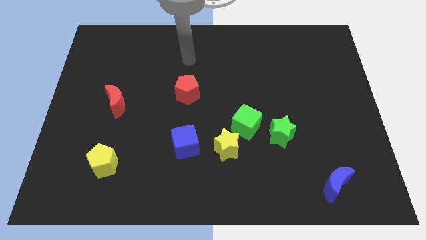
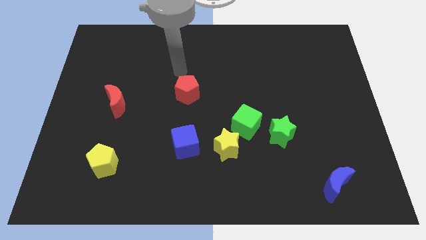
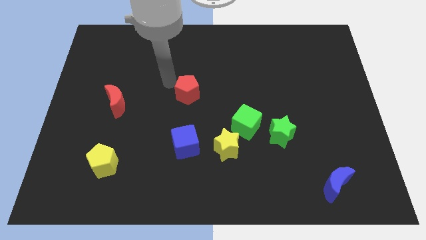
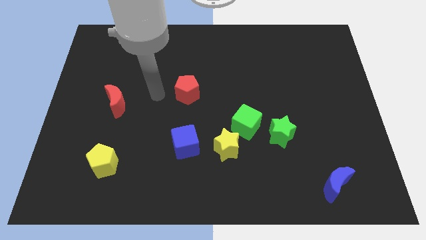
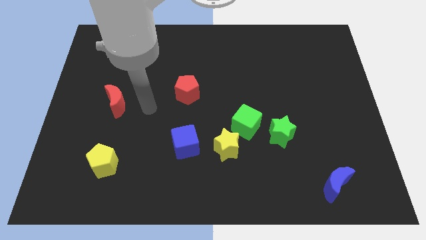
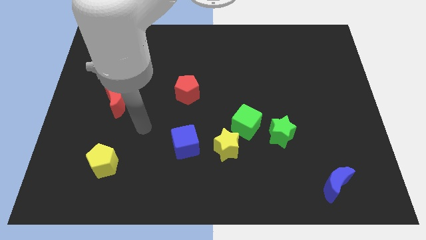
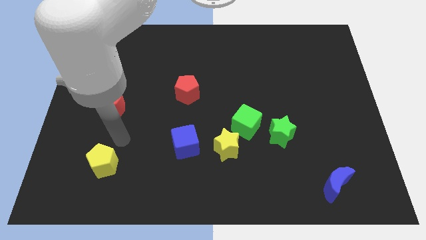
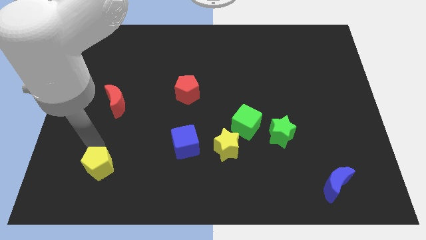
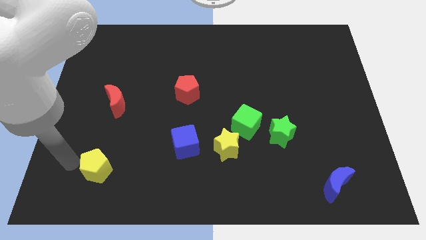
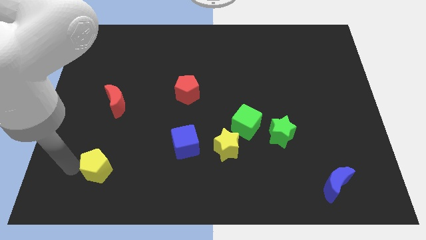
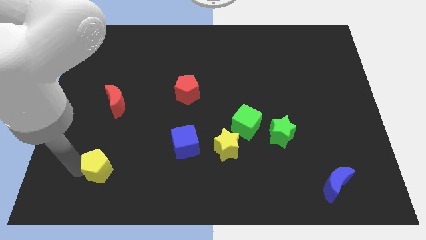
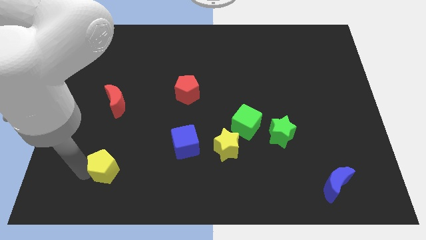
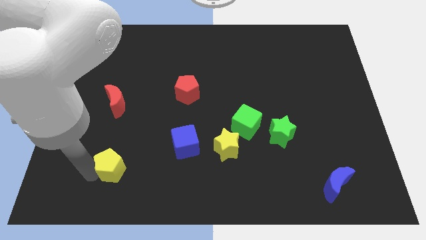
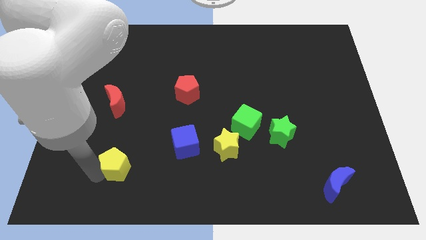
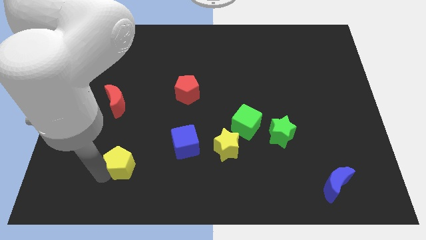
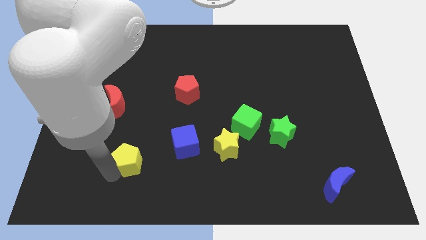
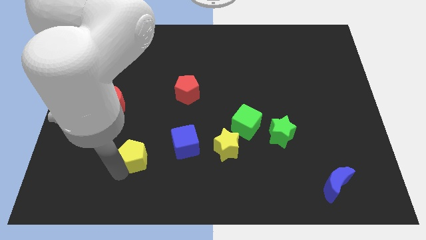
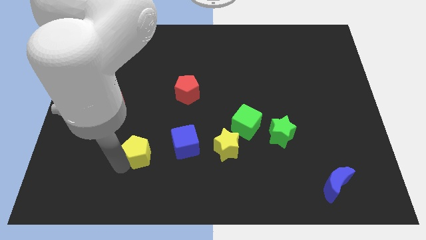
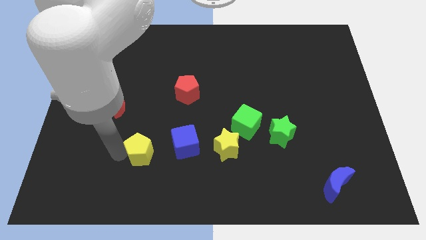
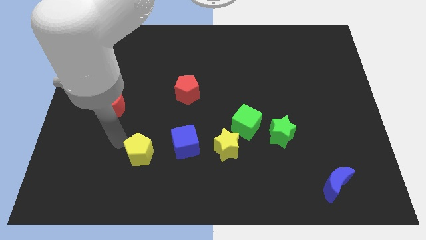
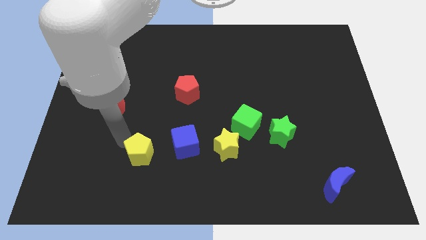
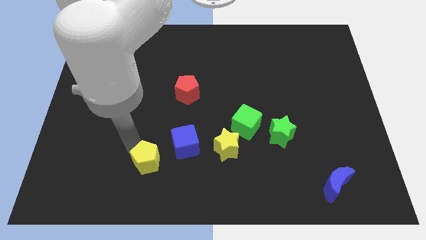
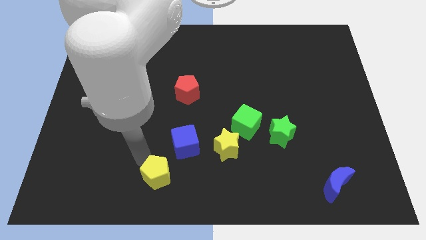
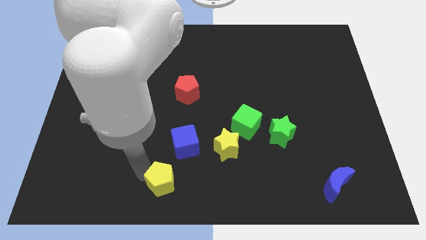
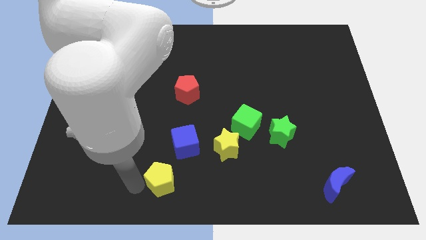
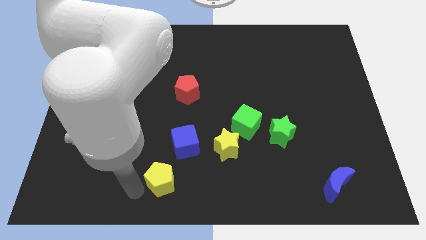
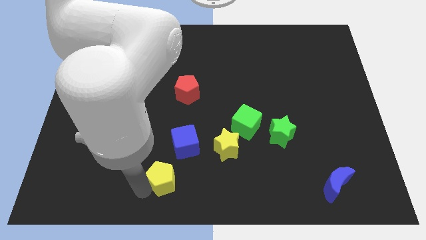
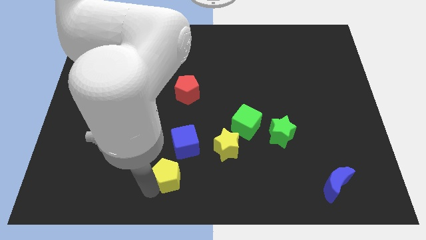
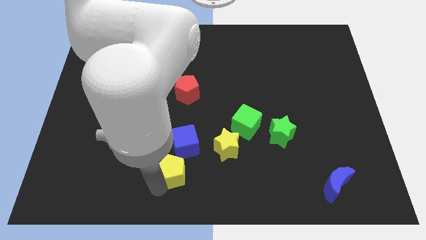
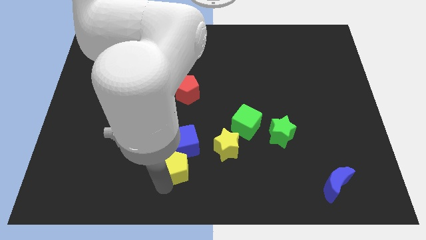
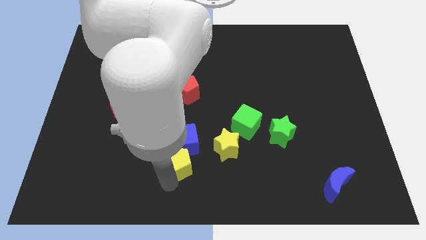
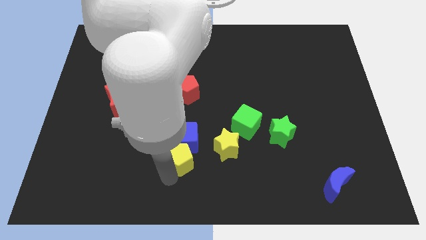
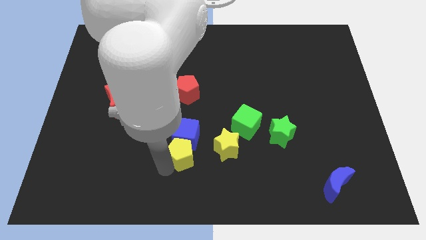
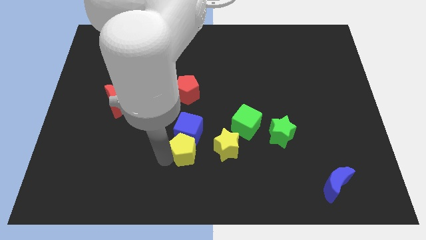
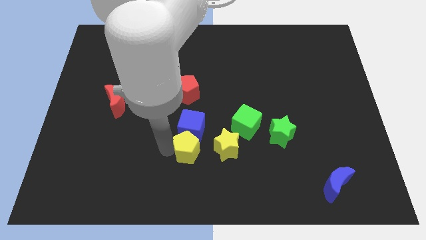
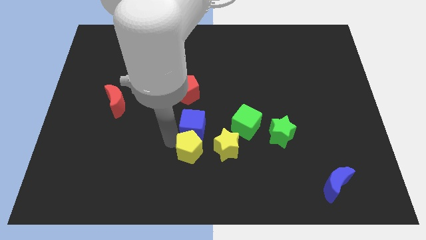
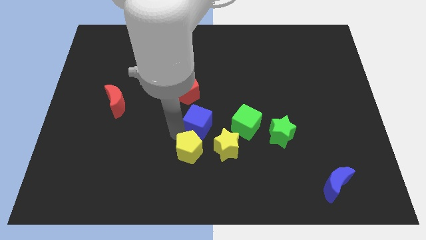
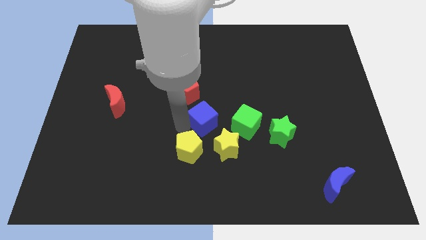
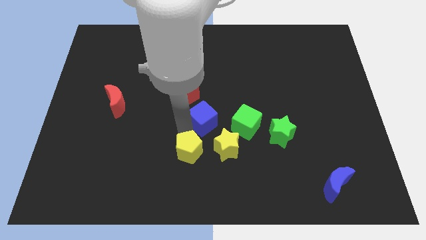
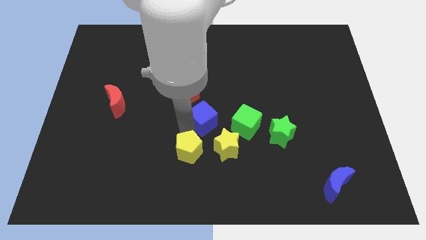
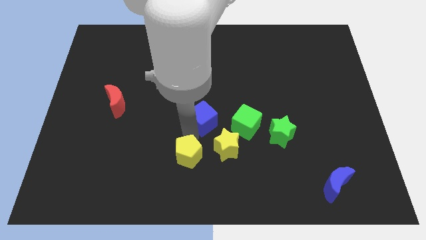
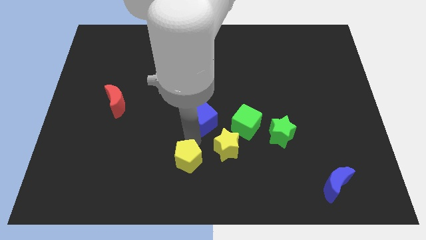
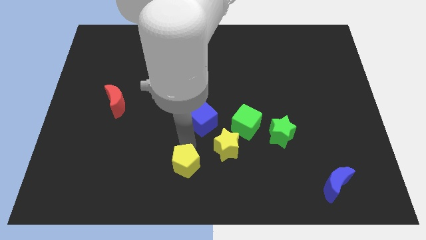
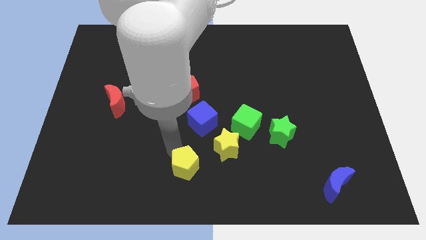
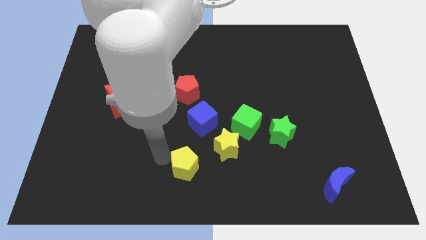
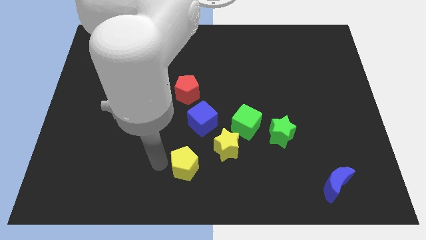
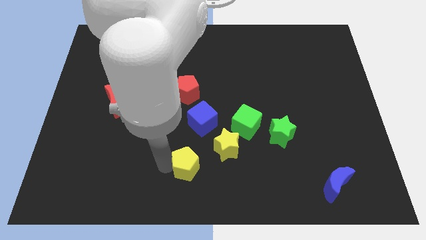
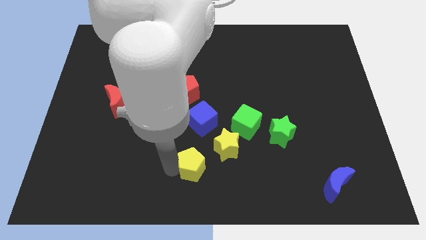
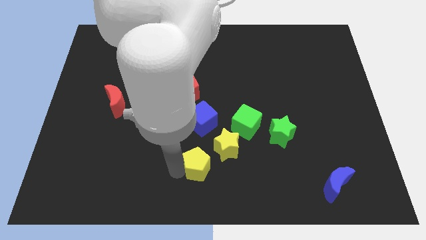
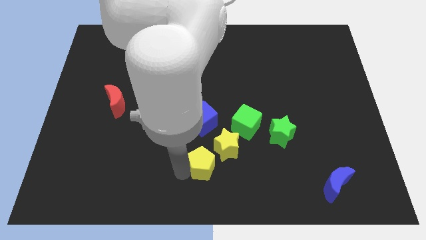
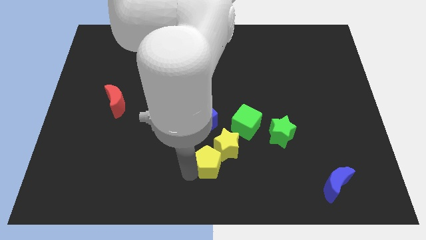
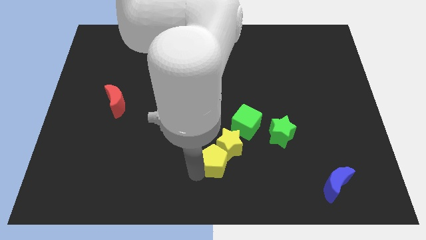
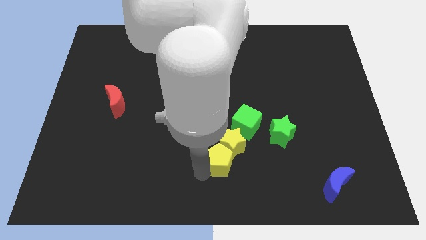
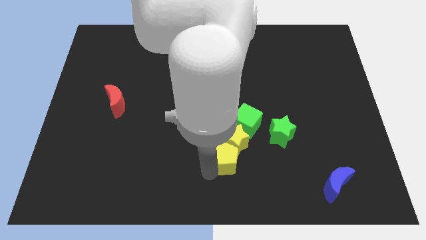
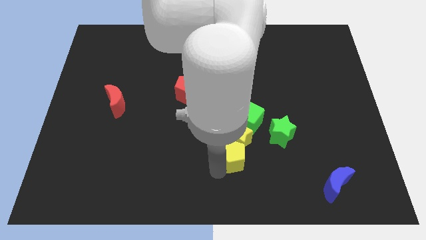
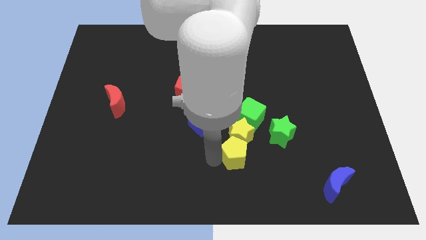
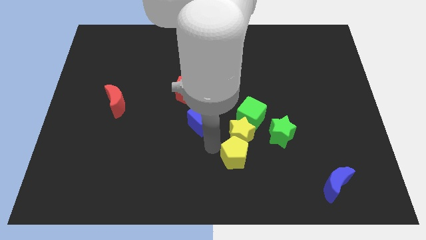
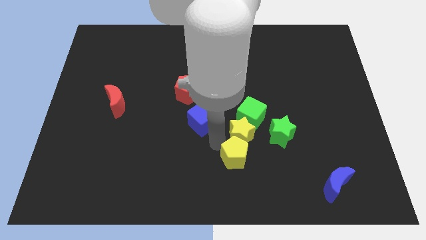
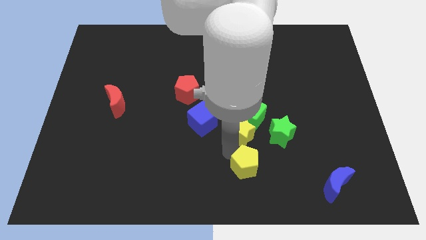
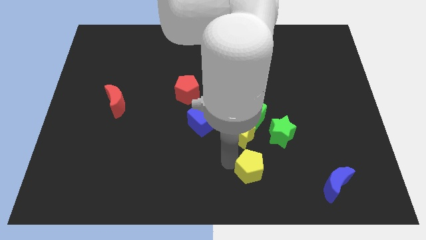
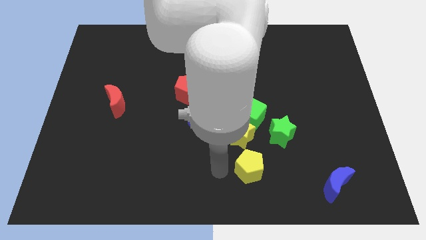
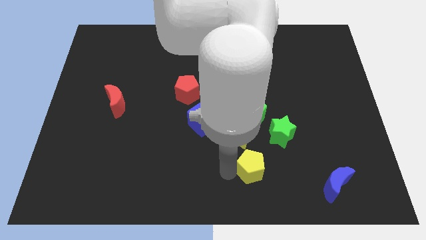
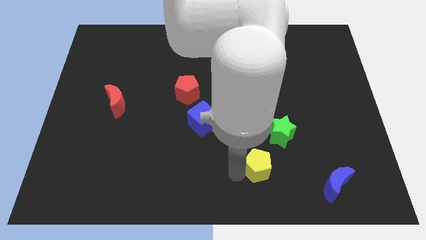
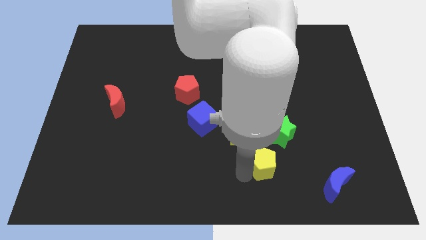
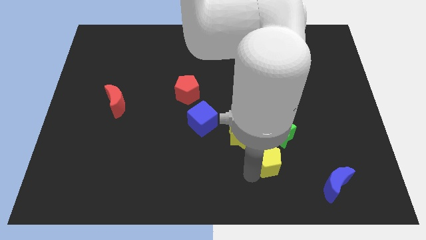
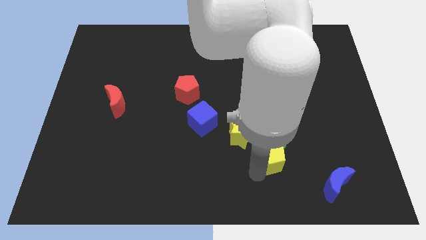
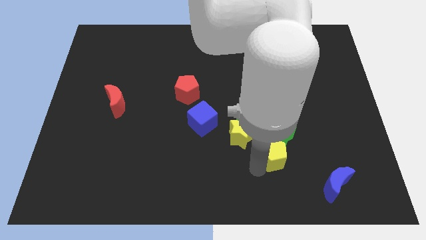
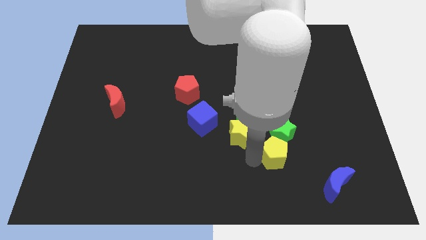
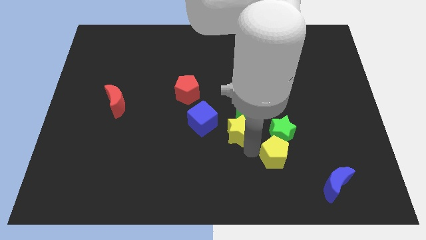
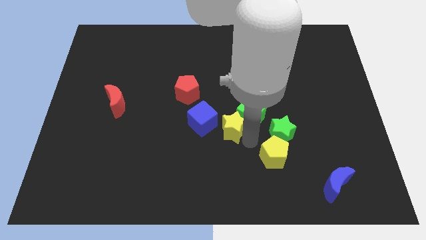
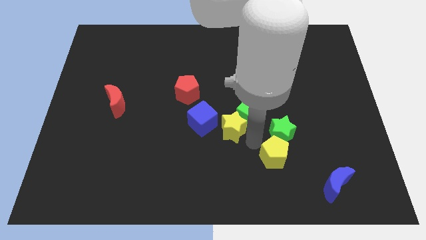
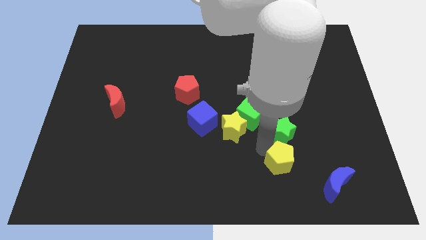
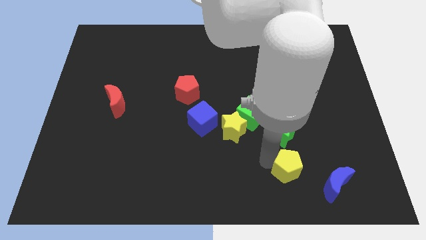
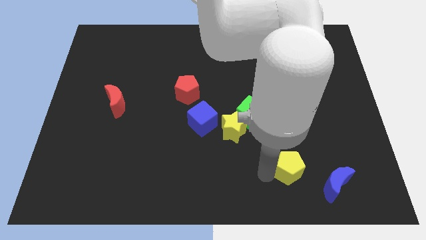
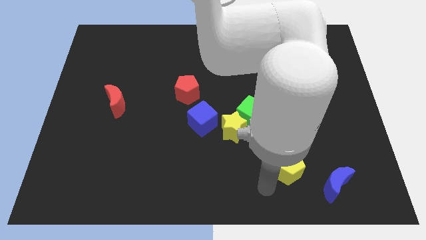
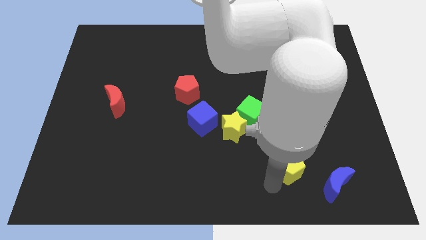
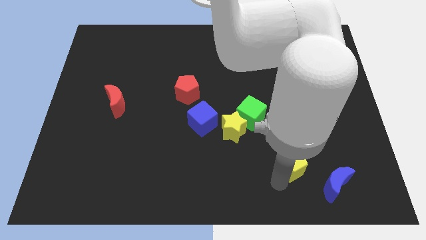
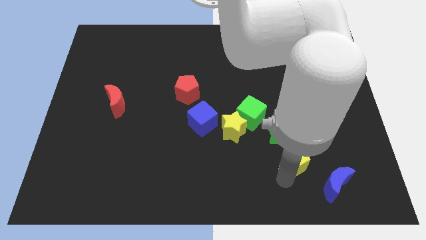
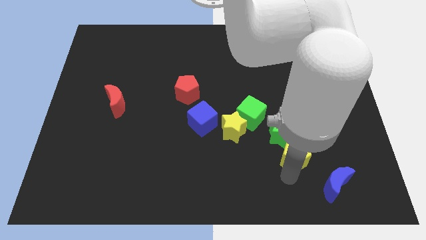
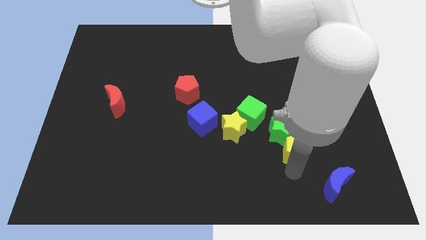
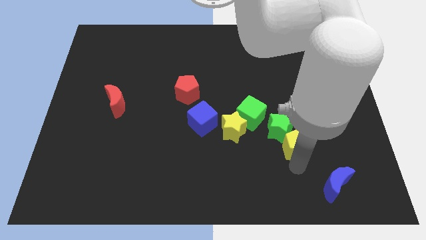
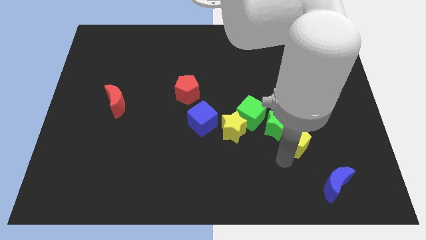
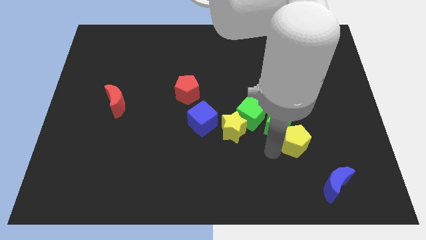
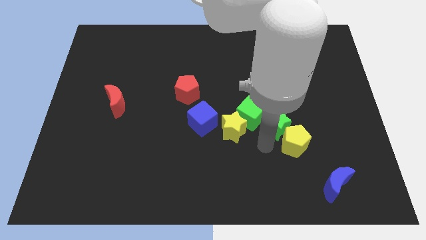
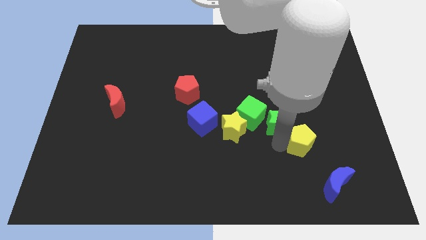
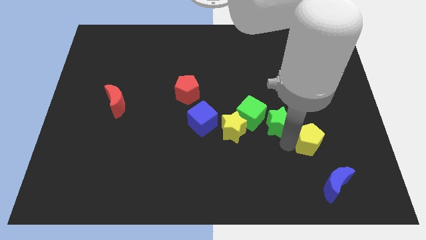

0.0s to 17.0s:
slide the yellow pentagon to the top of the blue moon
